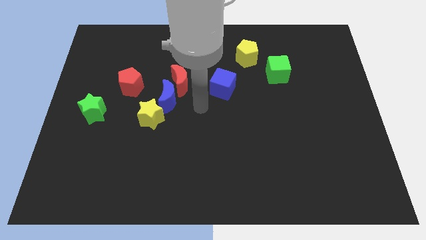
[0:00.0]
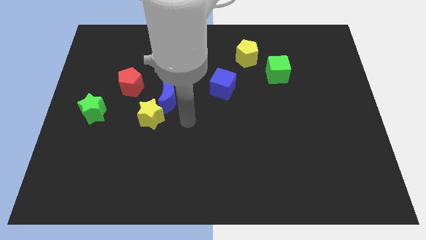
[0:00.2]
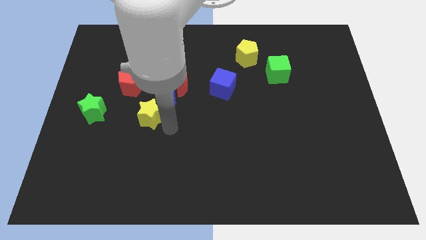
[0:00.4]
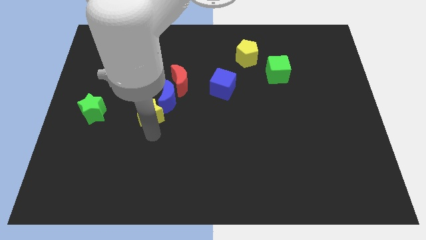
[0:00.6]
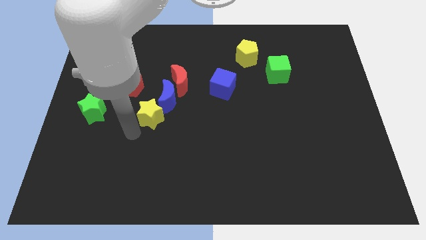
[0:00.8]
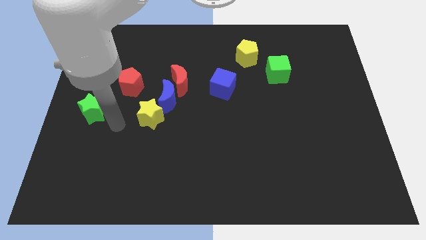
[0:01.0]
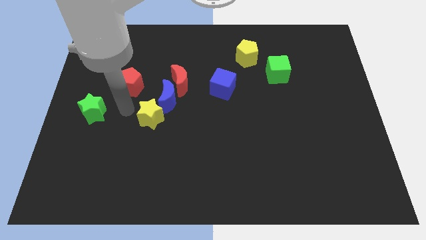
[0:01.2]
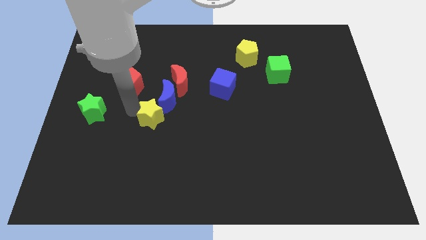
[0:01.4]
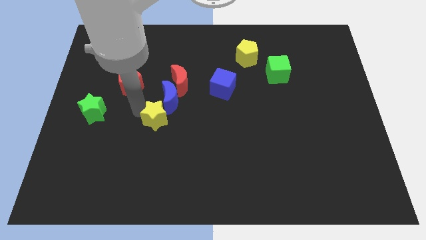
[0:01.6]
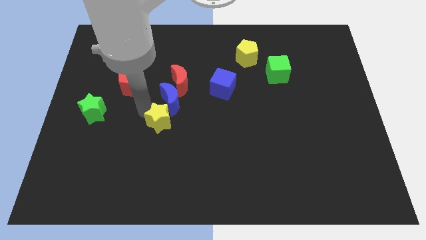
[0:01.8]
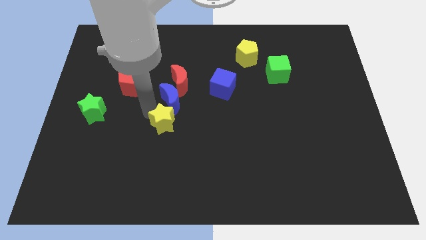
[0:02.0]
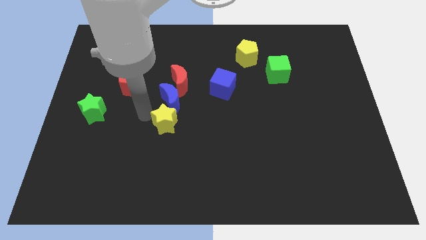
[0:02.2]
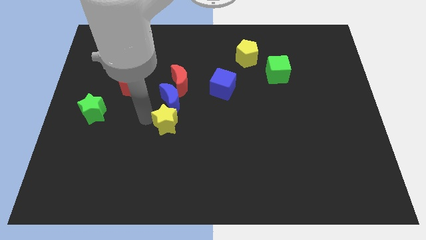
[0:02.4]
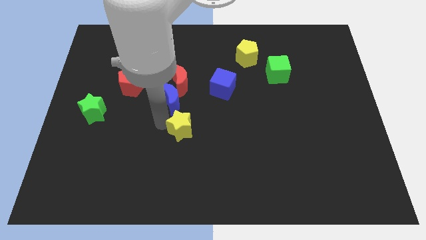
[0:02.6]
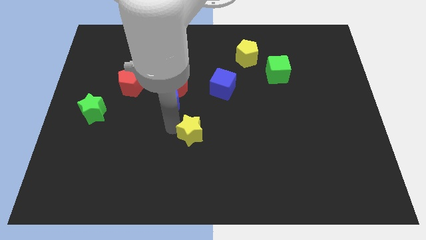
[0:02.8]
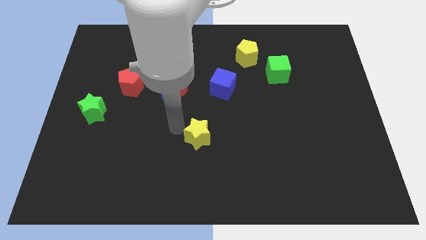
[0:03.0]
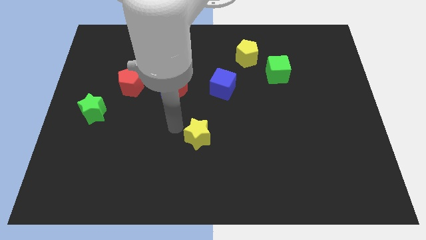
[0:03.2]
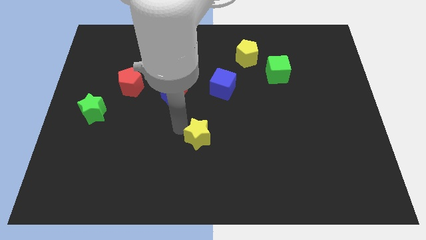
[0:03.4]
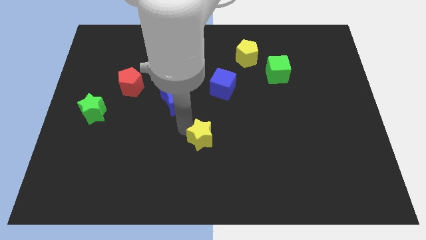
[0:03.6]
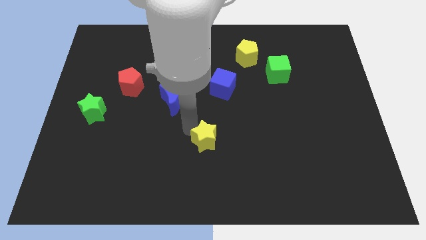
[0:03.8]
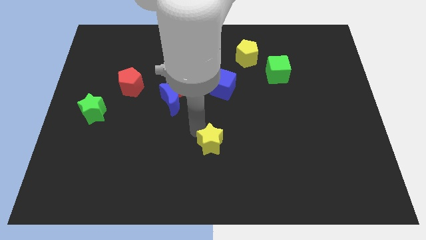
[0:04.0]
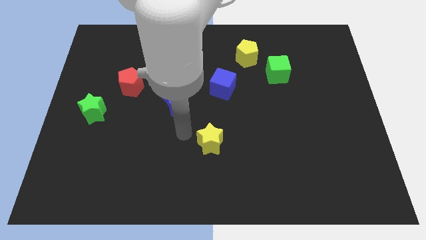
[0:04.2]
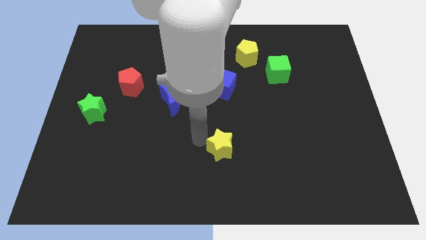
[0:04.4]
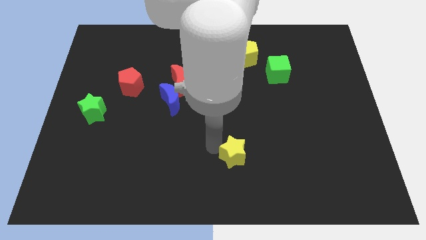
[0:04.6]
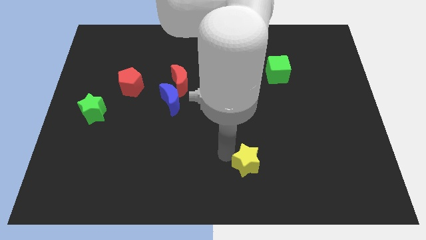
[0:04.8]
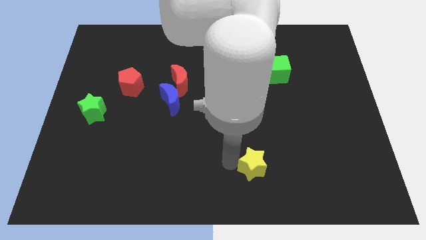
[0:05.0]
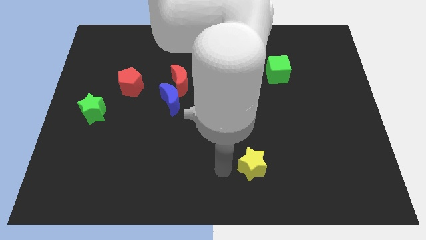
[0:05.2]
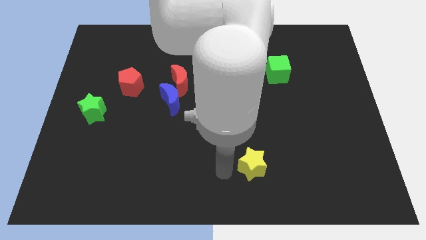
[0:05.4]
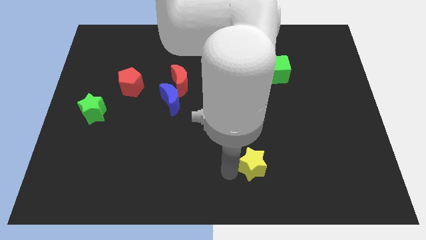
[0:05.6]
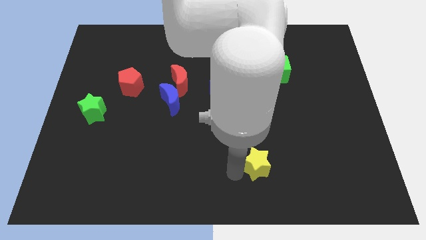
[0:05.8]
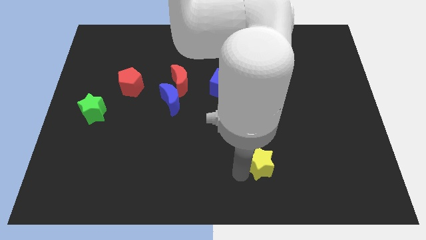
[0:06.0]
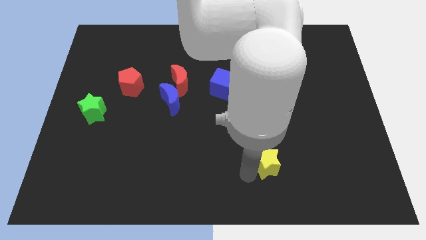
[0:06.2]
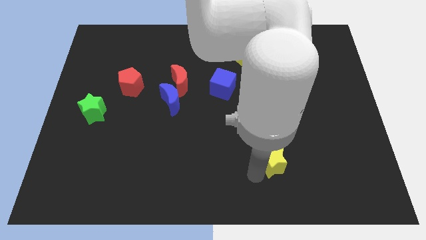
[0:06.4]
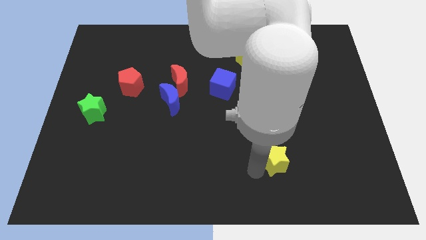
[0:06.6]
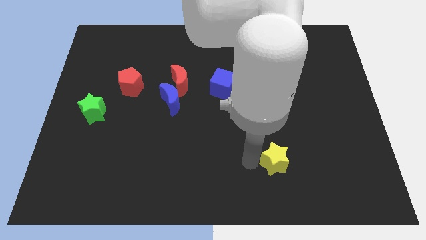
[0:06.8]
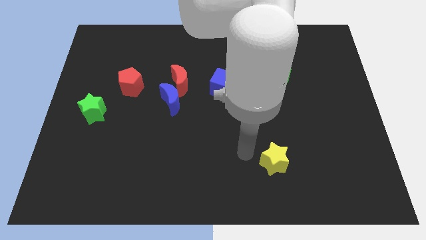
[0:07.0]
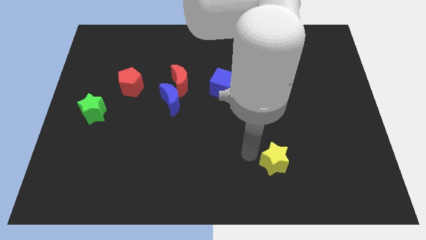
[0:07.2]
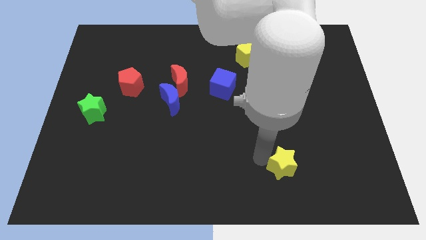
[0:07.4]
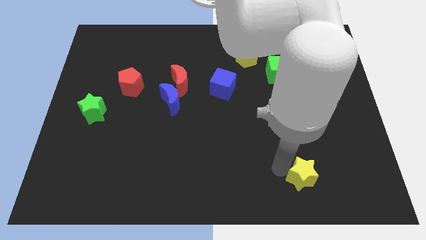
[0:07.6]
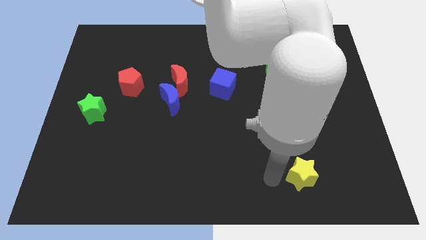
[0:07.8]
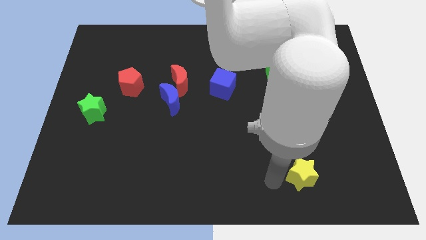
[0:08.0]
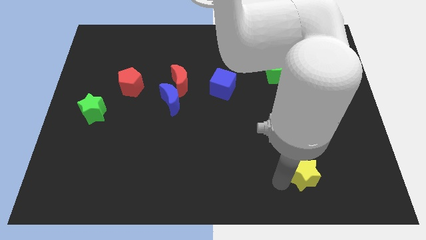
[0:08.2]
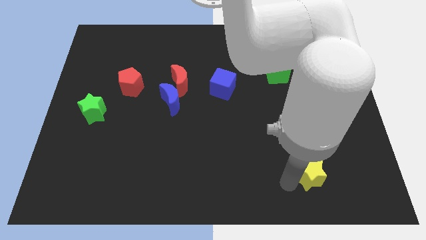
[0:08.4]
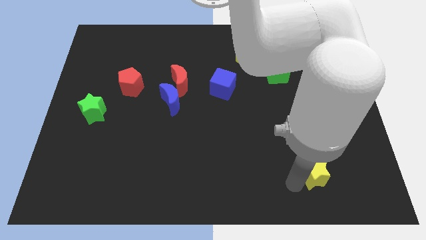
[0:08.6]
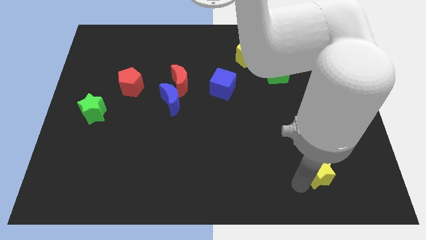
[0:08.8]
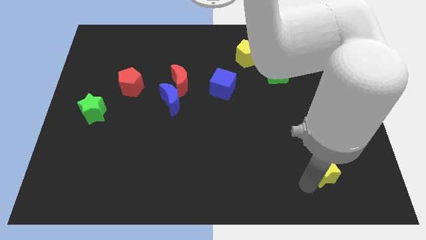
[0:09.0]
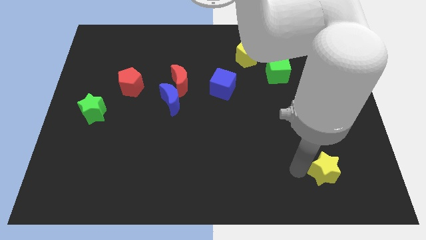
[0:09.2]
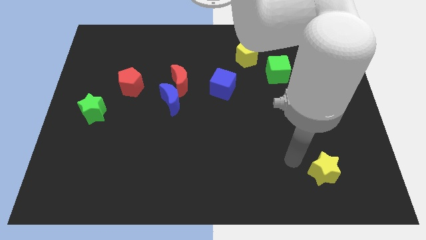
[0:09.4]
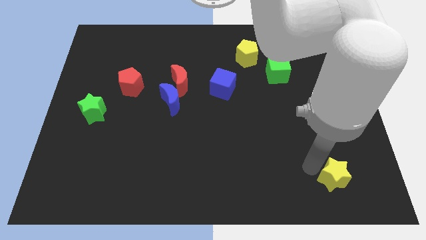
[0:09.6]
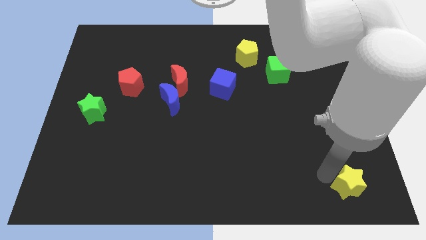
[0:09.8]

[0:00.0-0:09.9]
move the yellow star to the bottom right
